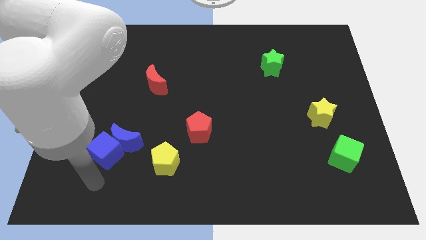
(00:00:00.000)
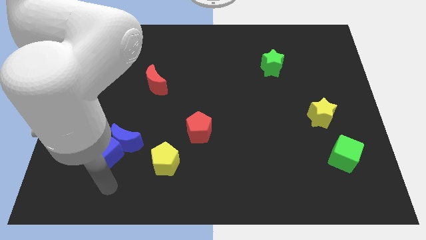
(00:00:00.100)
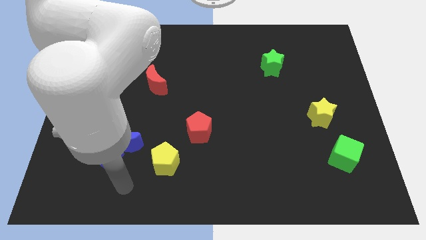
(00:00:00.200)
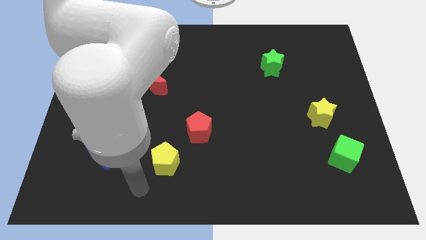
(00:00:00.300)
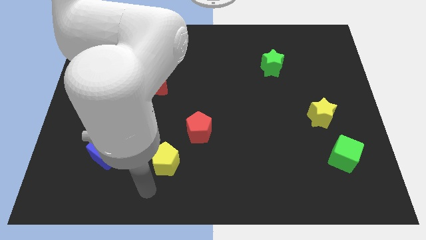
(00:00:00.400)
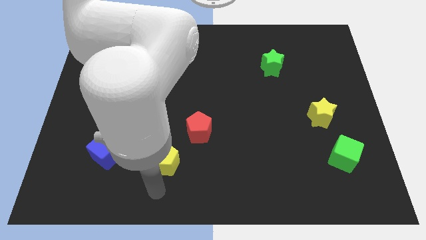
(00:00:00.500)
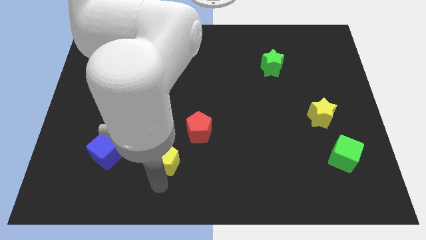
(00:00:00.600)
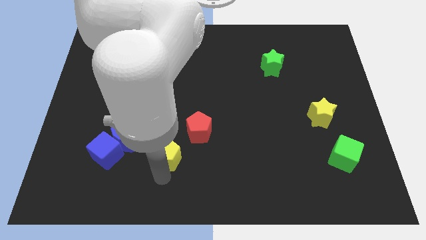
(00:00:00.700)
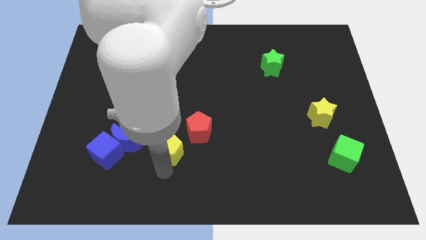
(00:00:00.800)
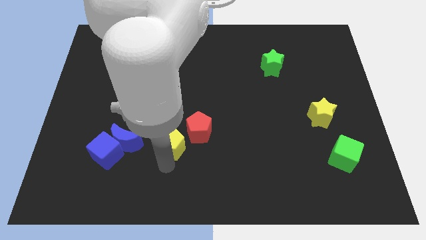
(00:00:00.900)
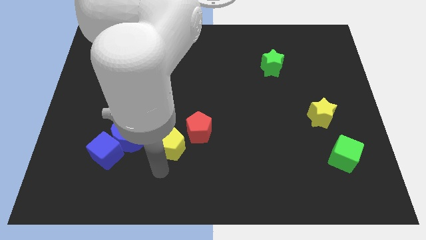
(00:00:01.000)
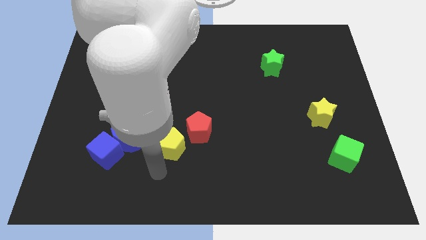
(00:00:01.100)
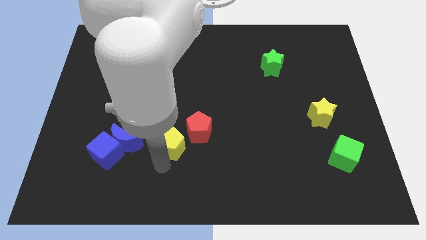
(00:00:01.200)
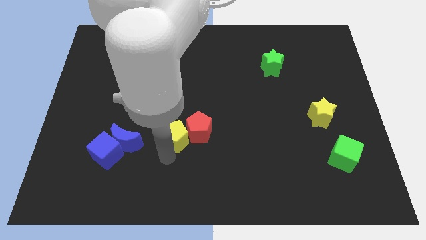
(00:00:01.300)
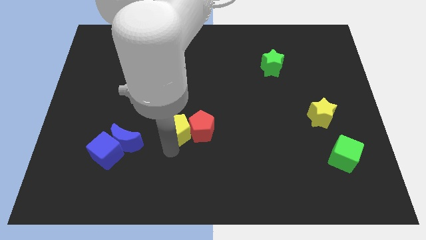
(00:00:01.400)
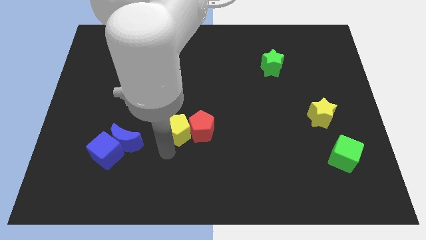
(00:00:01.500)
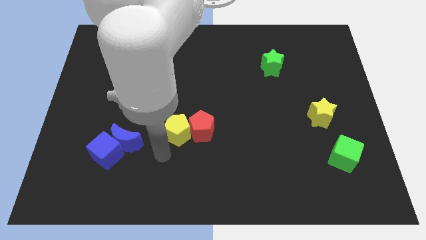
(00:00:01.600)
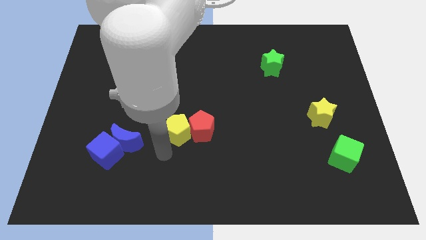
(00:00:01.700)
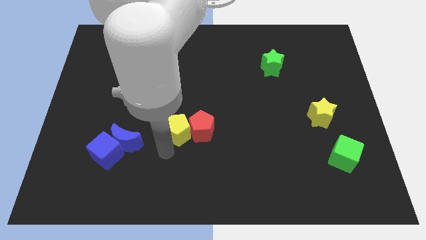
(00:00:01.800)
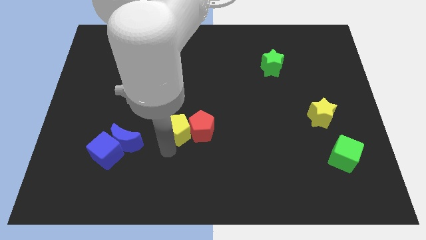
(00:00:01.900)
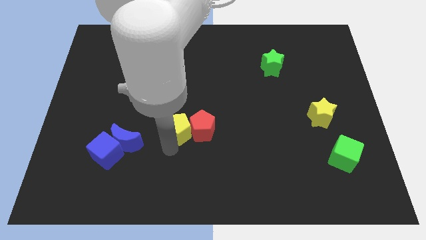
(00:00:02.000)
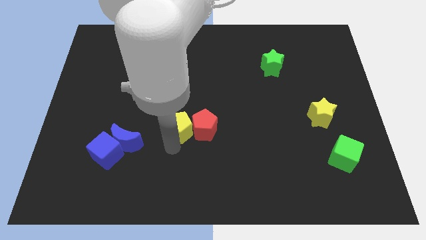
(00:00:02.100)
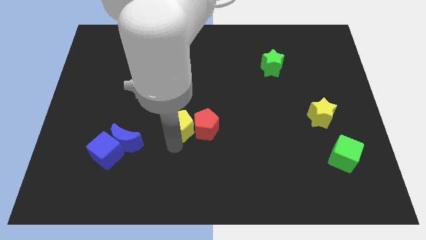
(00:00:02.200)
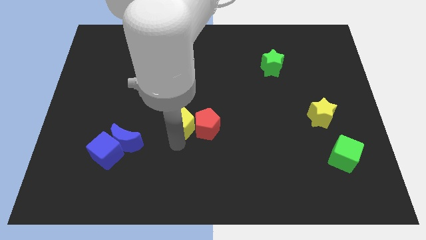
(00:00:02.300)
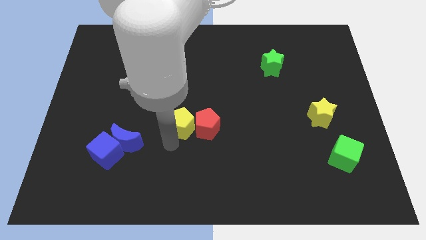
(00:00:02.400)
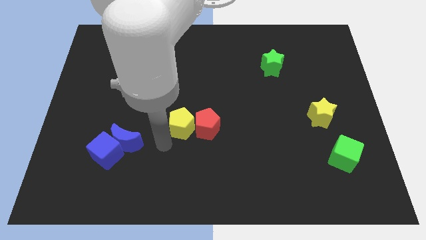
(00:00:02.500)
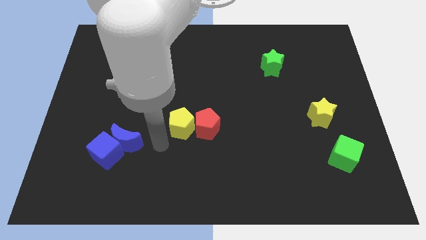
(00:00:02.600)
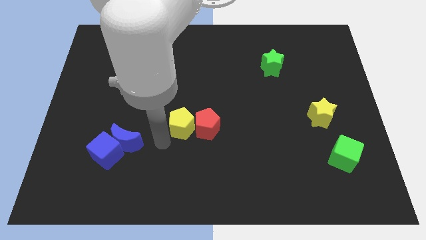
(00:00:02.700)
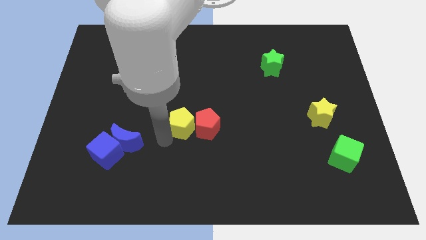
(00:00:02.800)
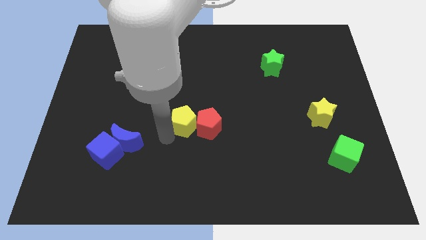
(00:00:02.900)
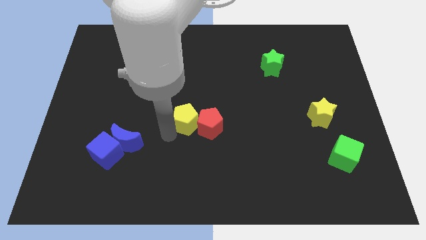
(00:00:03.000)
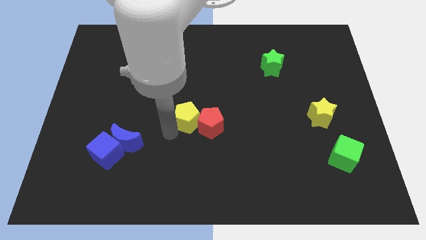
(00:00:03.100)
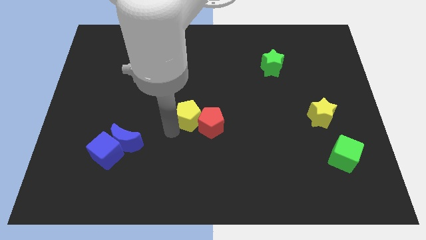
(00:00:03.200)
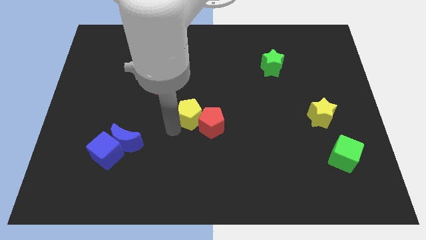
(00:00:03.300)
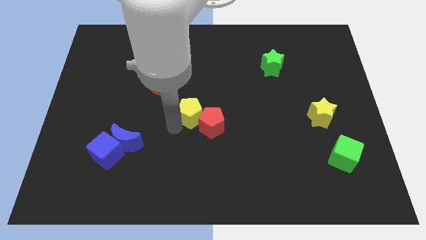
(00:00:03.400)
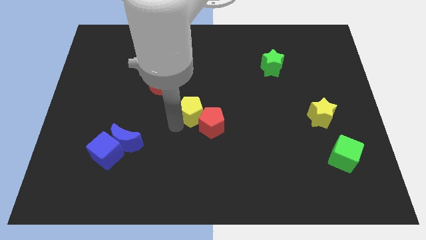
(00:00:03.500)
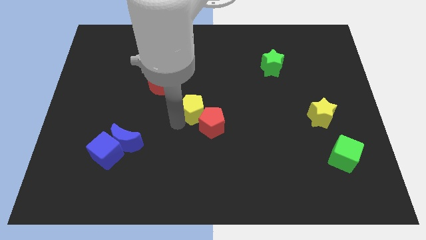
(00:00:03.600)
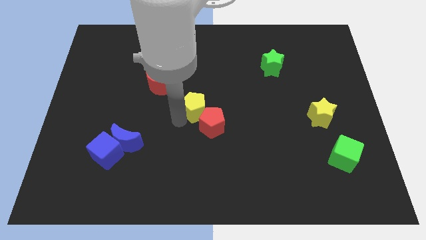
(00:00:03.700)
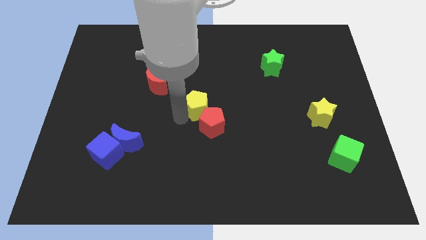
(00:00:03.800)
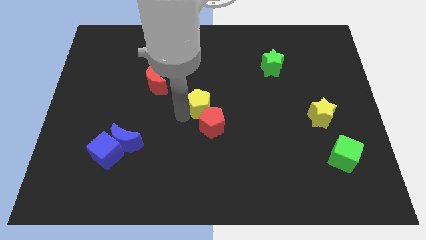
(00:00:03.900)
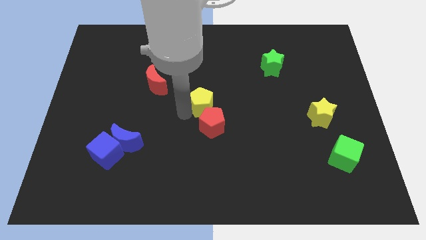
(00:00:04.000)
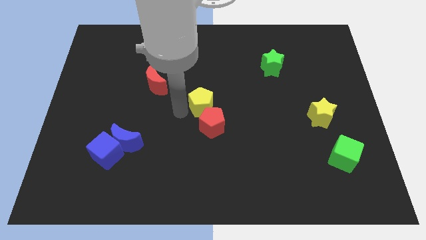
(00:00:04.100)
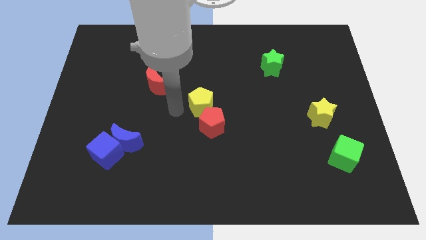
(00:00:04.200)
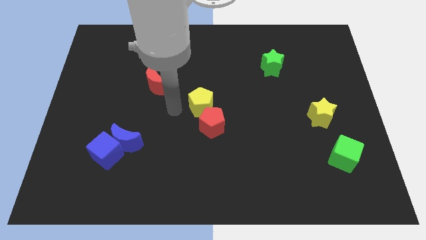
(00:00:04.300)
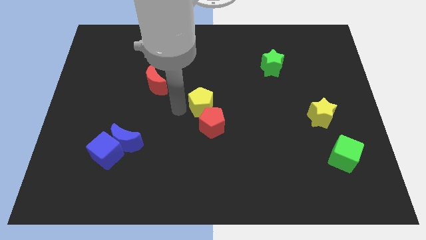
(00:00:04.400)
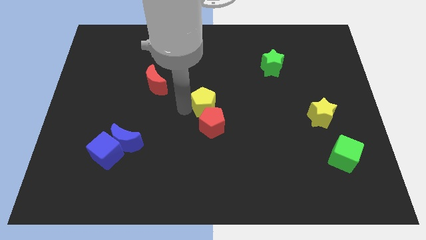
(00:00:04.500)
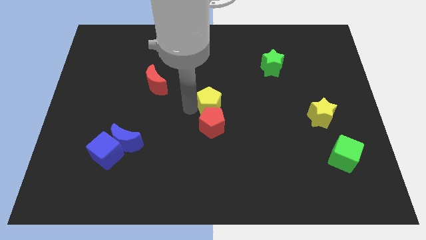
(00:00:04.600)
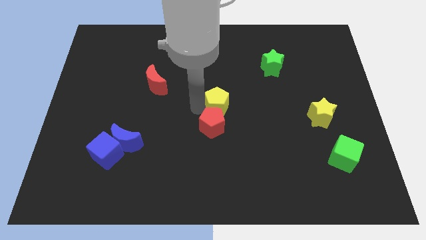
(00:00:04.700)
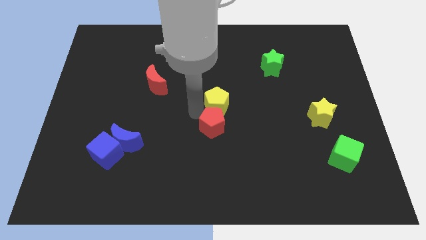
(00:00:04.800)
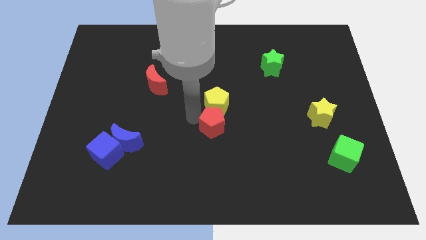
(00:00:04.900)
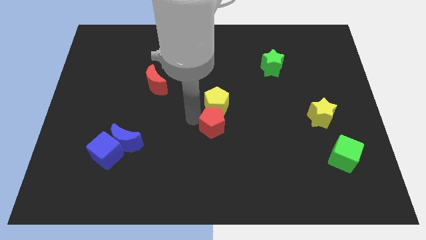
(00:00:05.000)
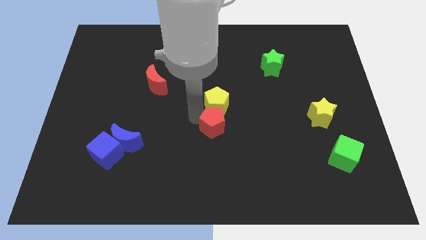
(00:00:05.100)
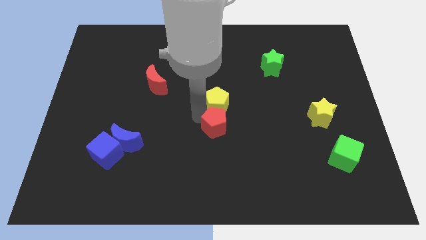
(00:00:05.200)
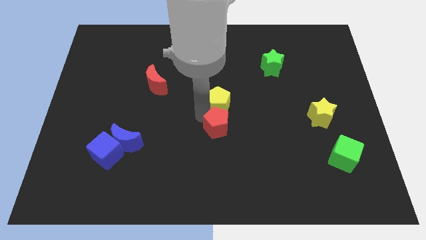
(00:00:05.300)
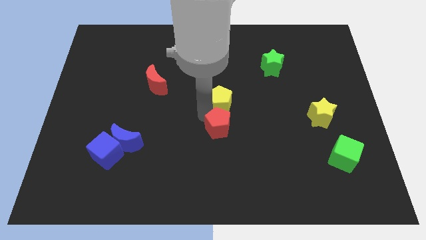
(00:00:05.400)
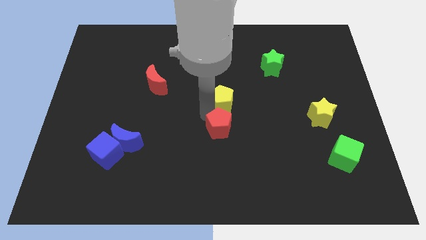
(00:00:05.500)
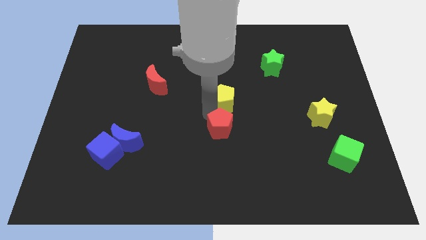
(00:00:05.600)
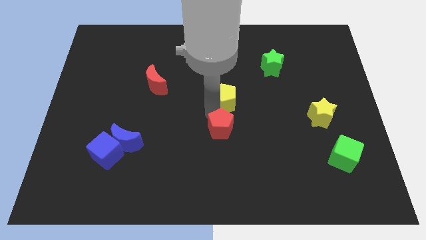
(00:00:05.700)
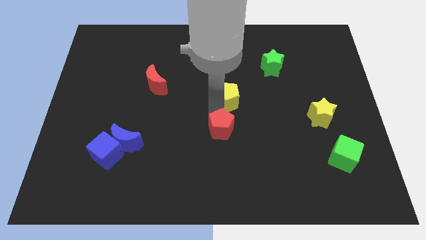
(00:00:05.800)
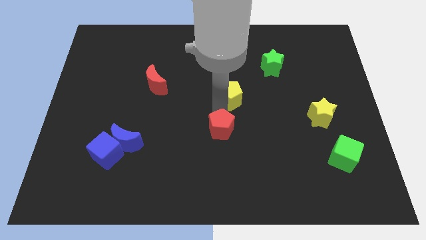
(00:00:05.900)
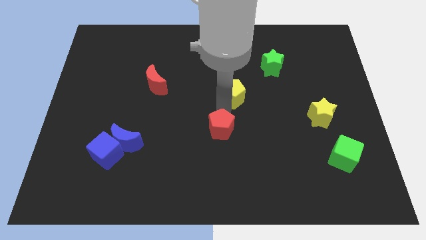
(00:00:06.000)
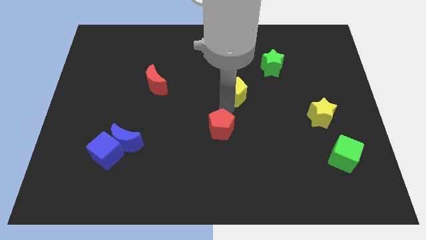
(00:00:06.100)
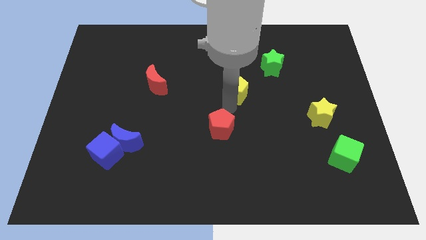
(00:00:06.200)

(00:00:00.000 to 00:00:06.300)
move the yellow pentagon to the bottom left side of the green star
